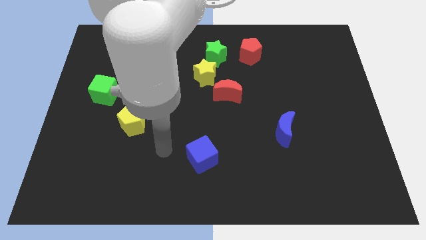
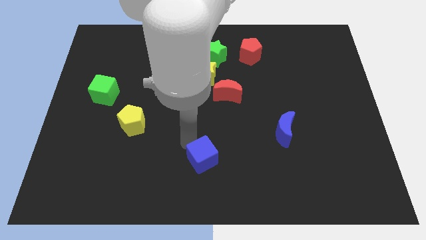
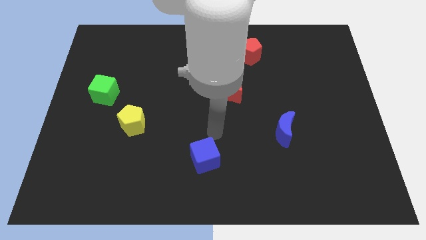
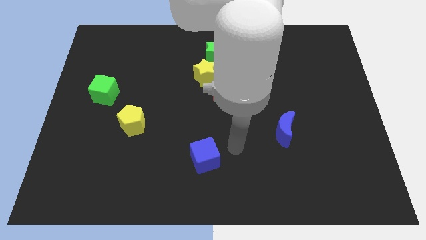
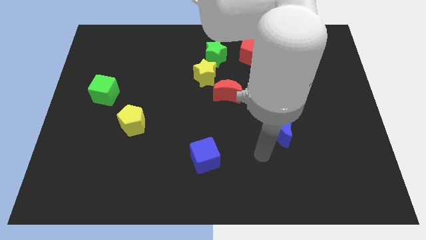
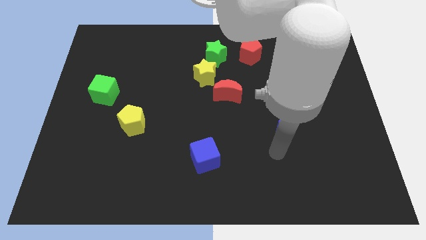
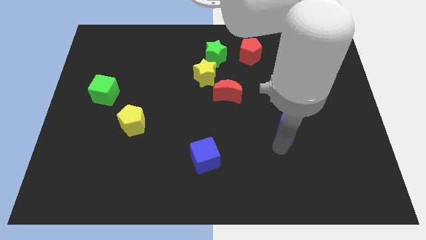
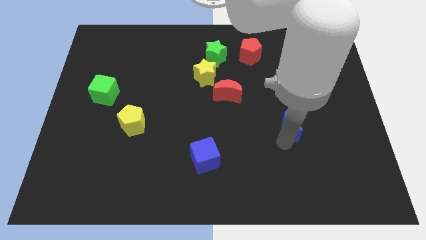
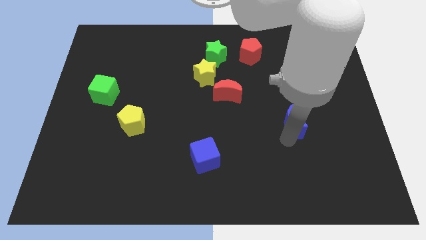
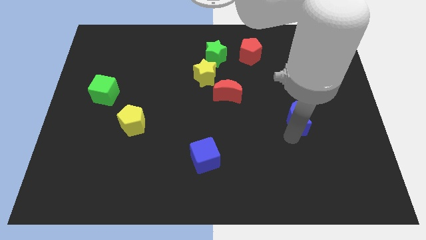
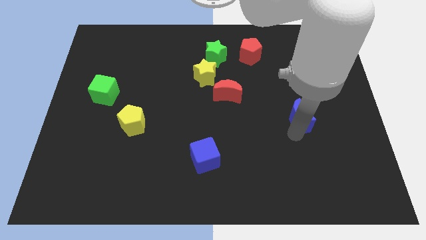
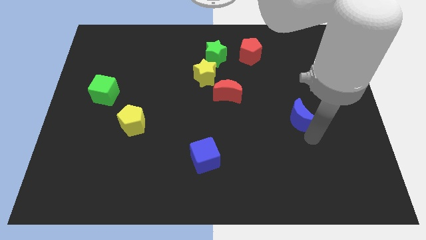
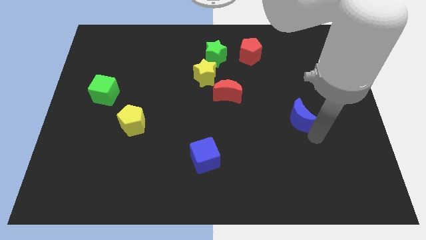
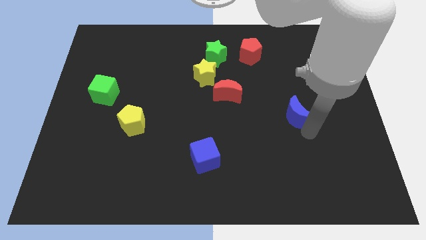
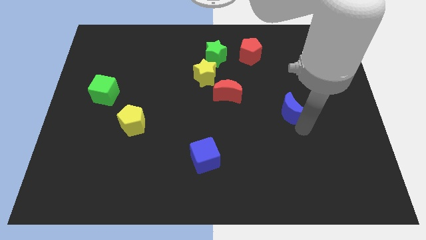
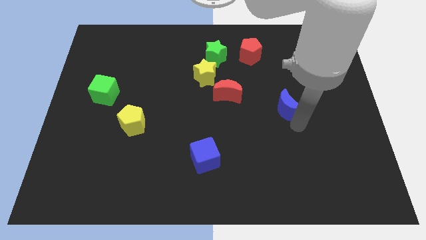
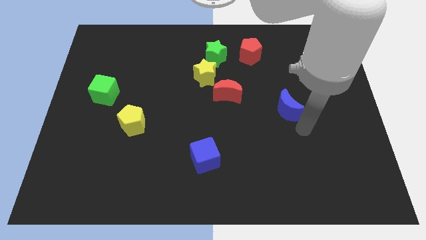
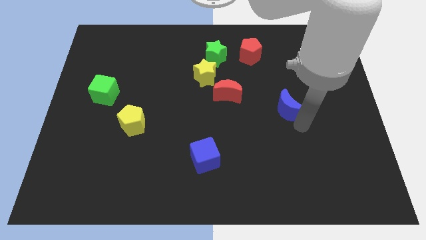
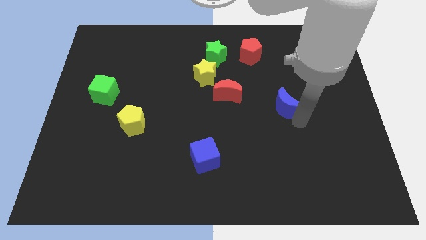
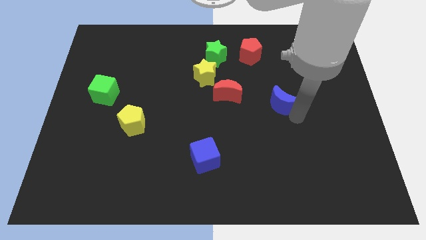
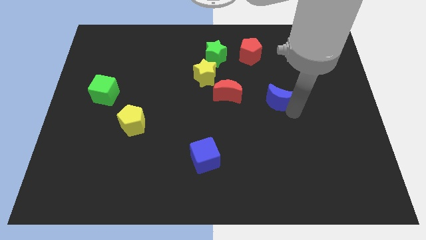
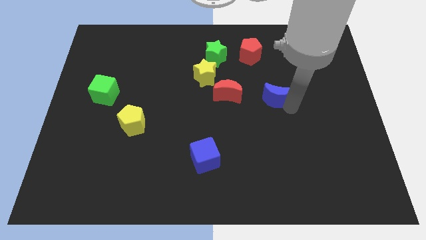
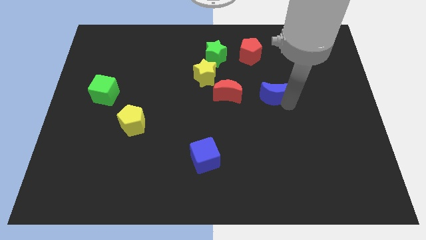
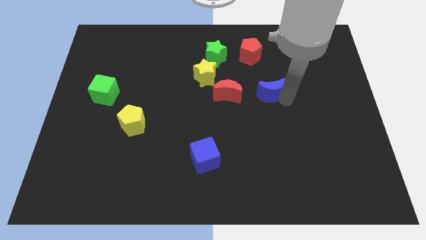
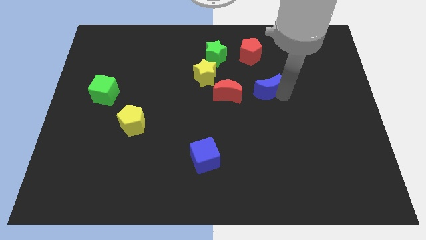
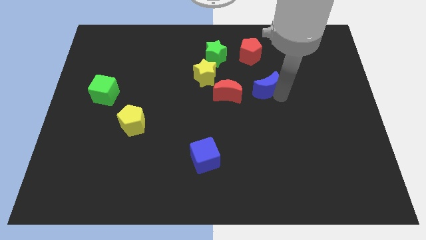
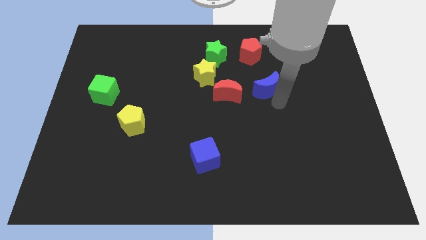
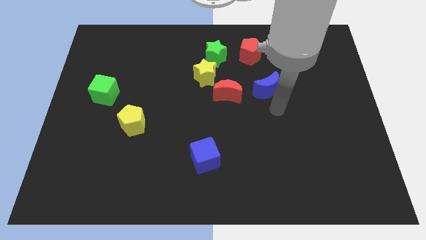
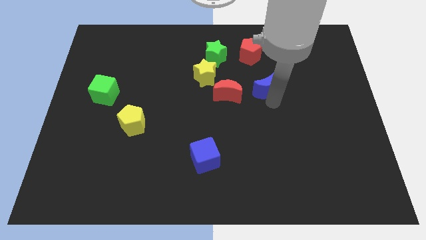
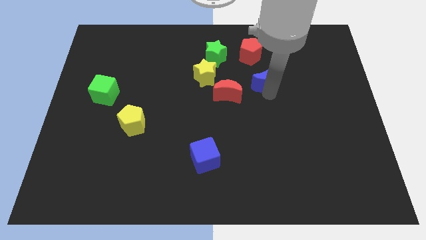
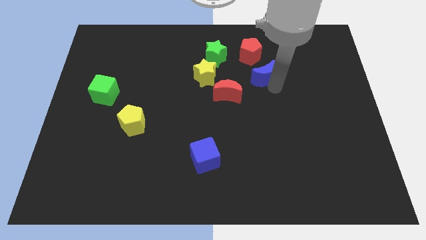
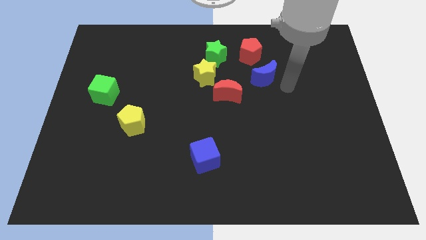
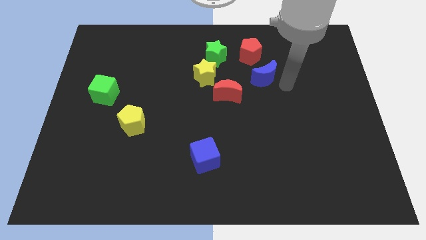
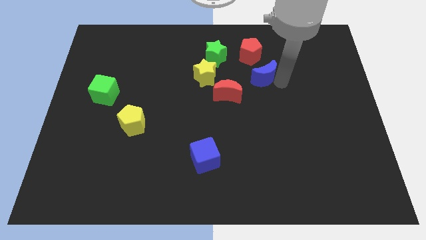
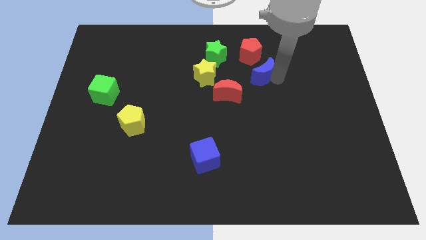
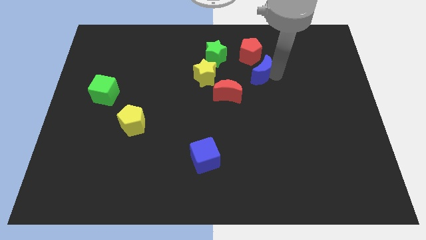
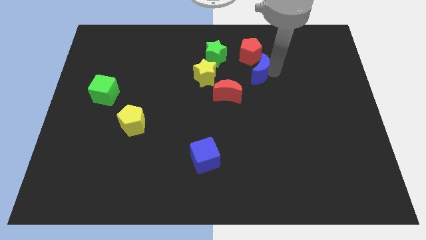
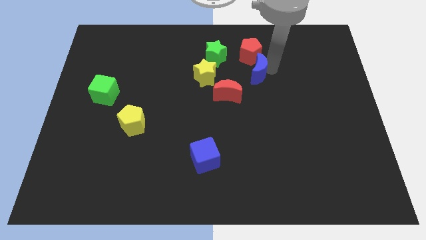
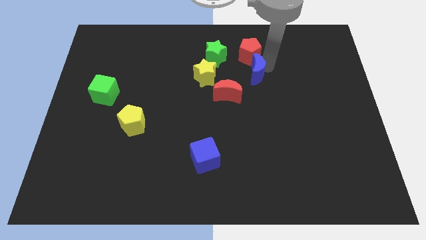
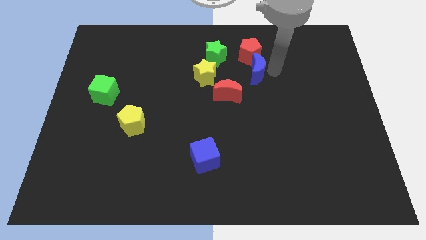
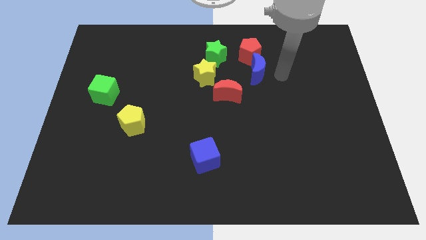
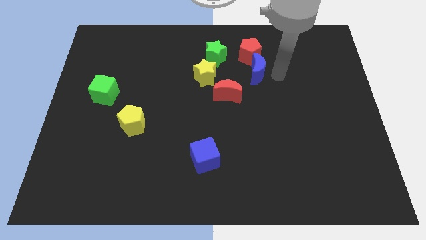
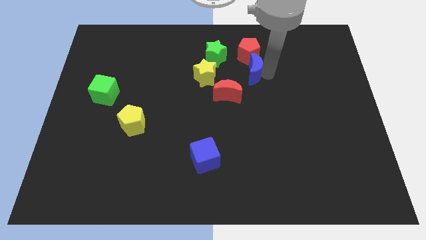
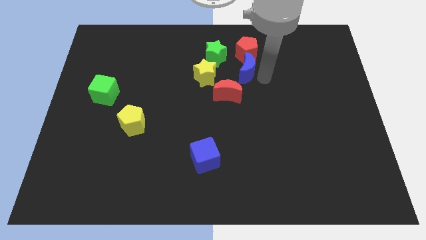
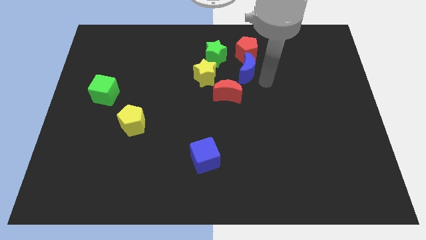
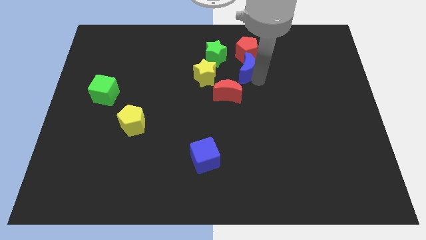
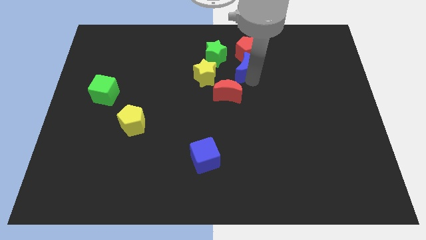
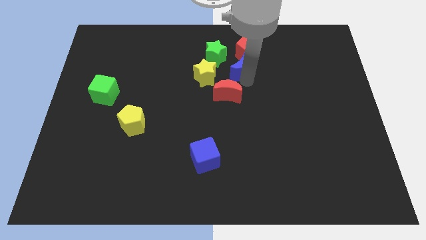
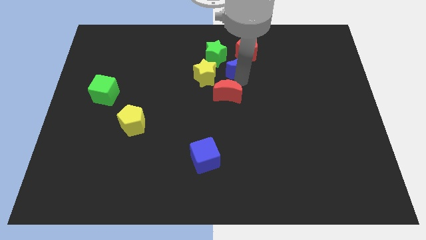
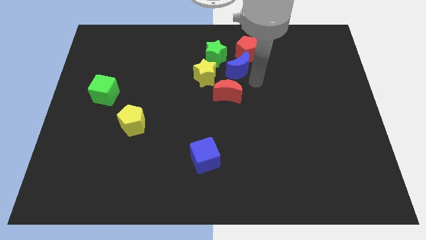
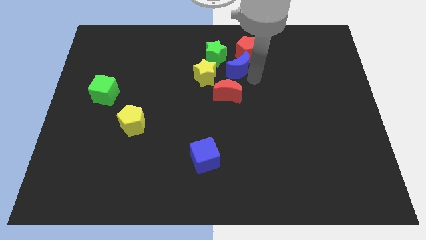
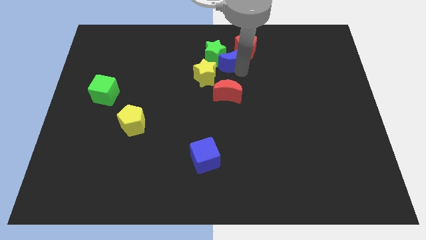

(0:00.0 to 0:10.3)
move the blue moon next to the green star
